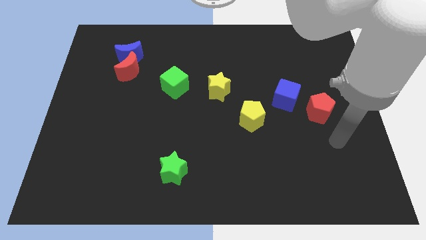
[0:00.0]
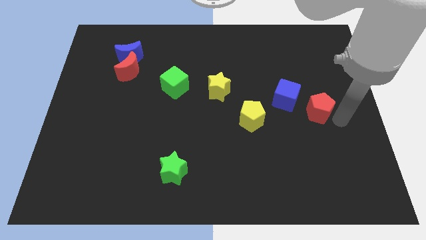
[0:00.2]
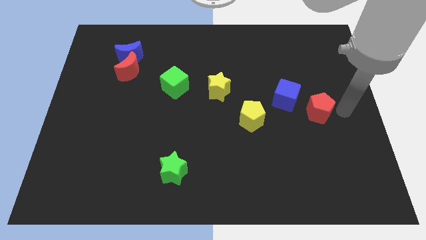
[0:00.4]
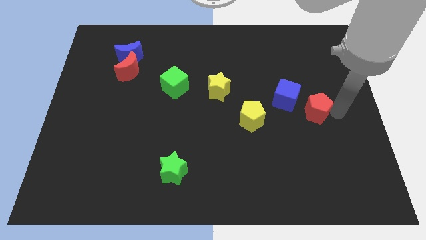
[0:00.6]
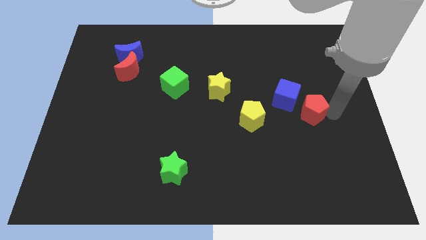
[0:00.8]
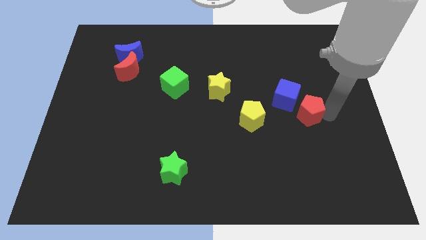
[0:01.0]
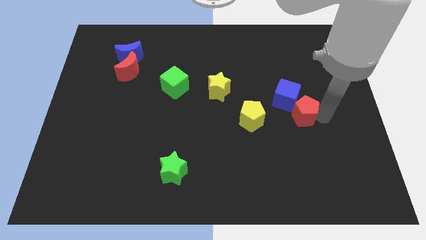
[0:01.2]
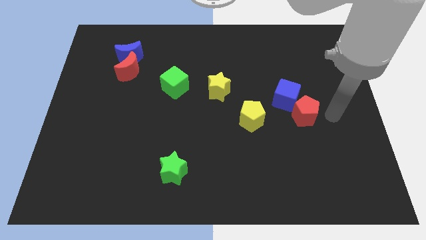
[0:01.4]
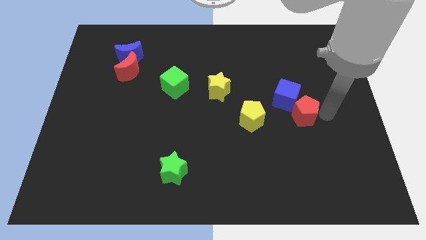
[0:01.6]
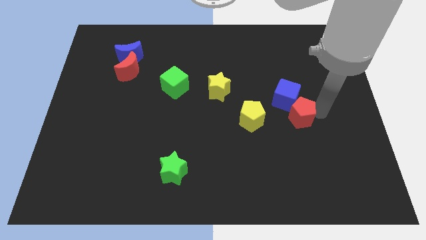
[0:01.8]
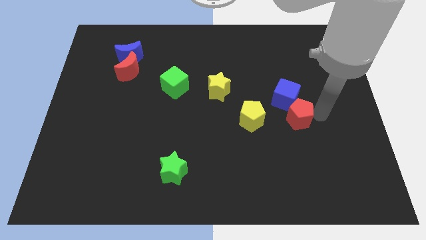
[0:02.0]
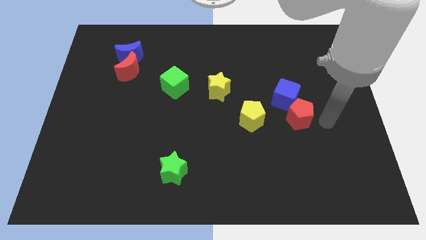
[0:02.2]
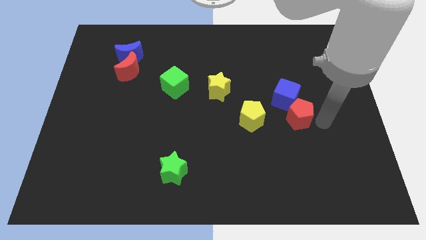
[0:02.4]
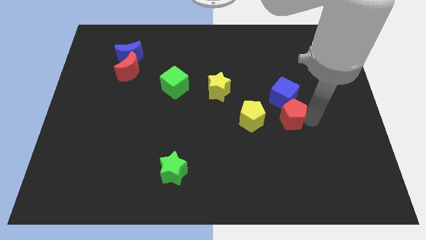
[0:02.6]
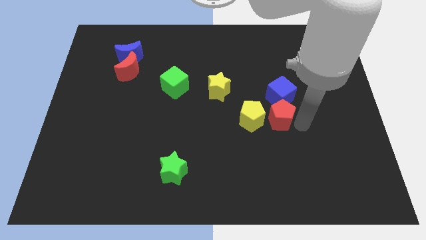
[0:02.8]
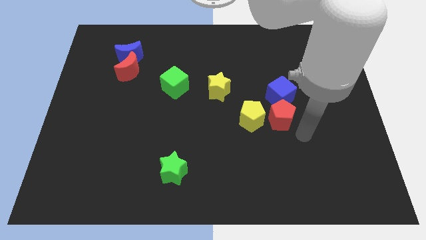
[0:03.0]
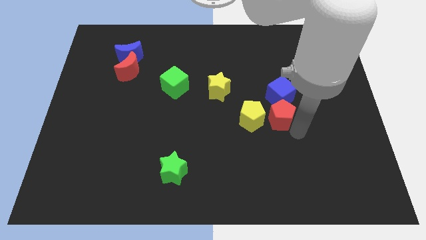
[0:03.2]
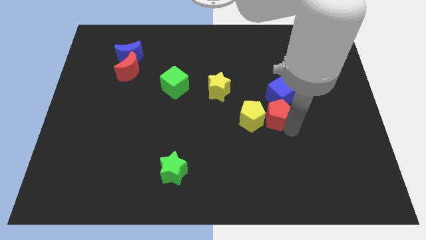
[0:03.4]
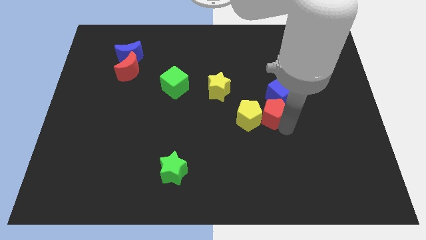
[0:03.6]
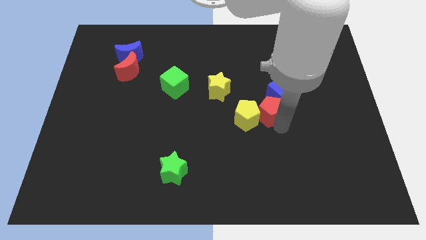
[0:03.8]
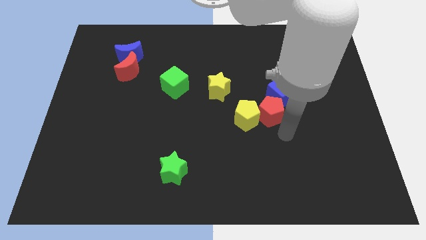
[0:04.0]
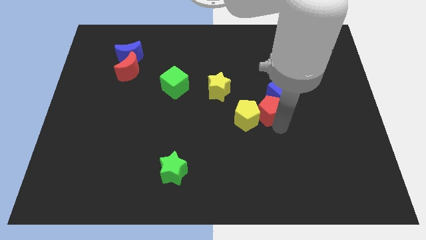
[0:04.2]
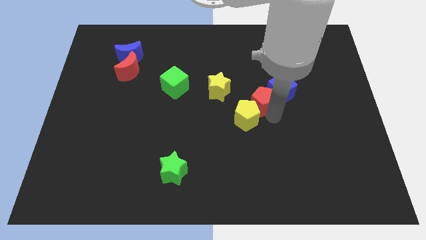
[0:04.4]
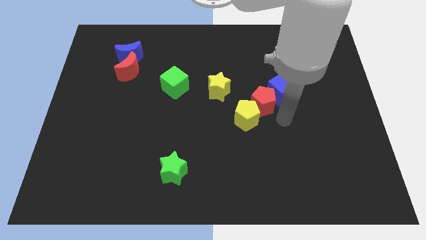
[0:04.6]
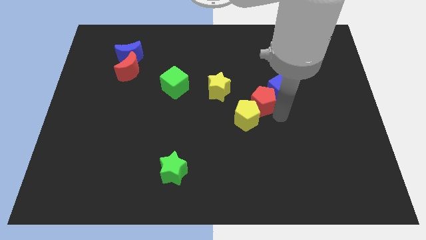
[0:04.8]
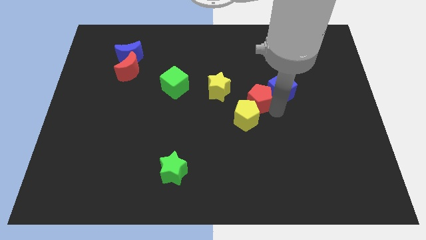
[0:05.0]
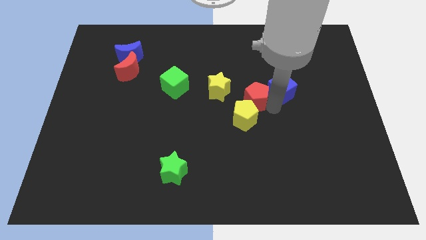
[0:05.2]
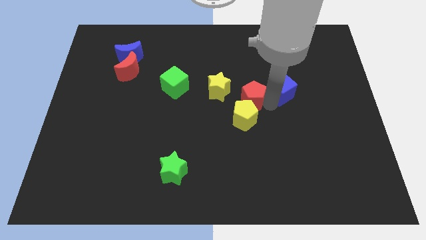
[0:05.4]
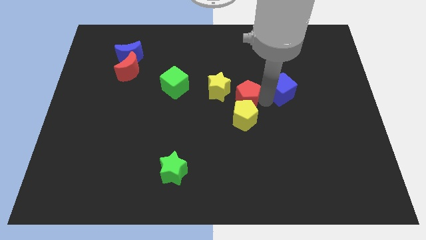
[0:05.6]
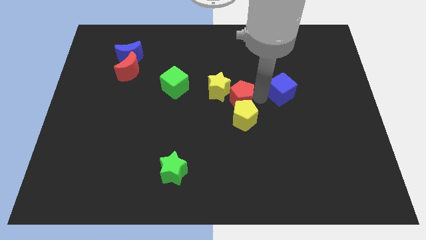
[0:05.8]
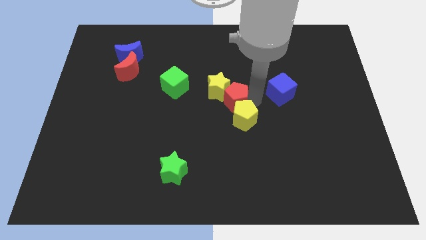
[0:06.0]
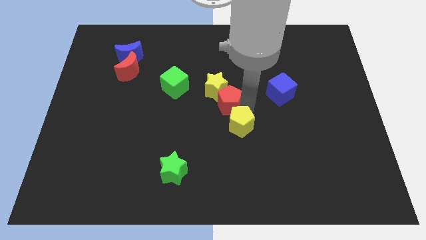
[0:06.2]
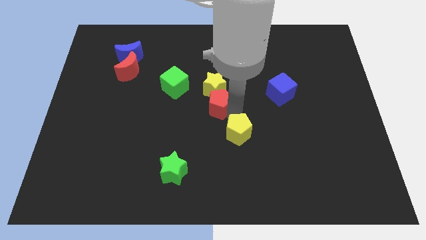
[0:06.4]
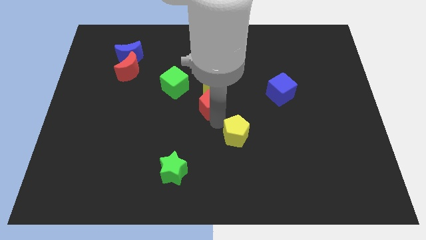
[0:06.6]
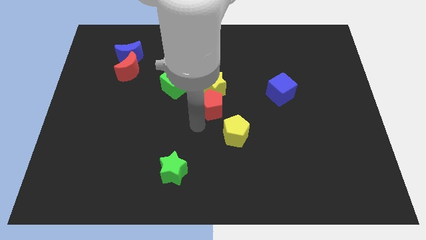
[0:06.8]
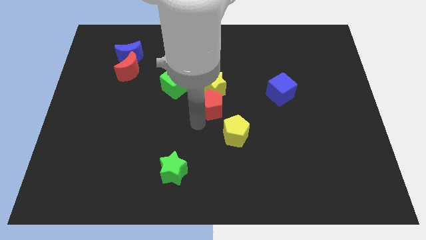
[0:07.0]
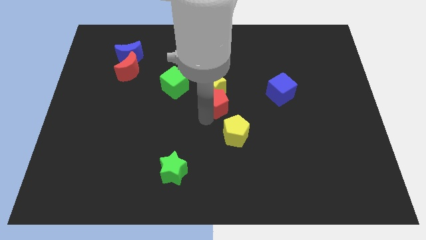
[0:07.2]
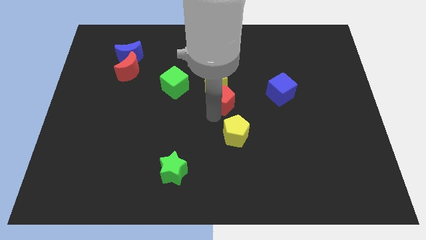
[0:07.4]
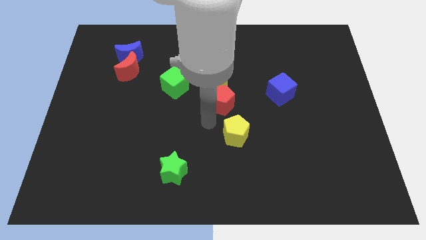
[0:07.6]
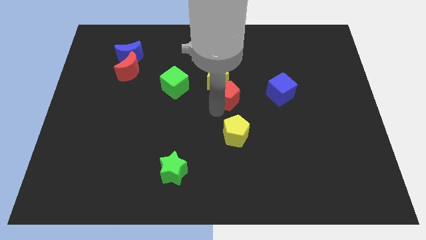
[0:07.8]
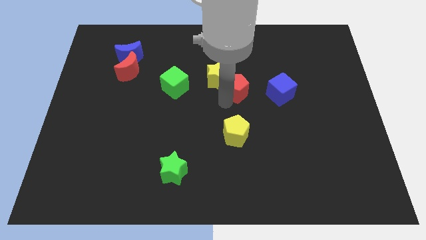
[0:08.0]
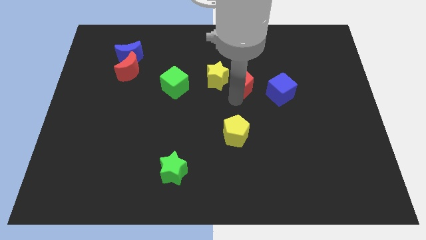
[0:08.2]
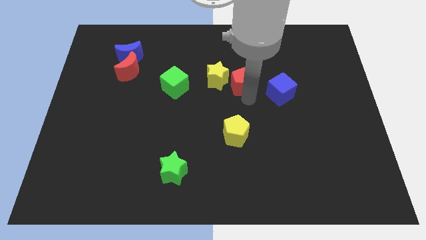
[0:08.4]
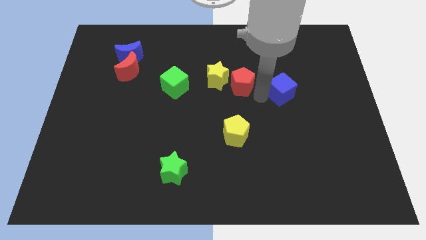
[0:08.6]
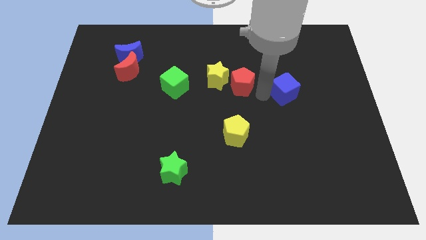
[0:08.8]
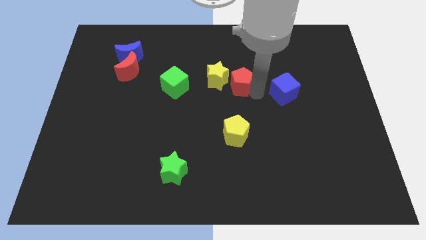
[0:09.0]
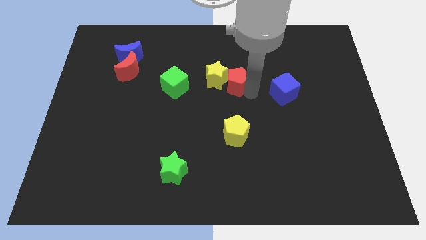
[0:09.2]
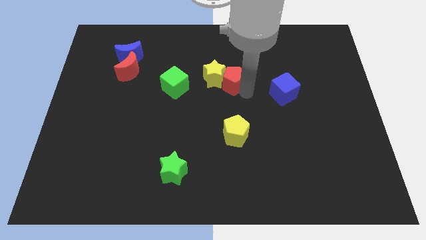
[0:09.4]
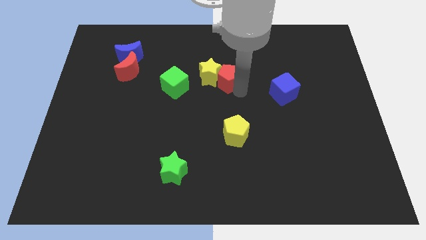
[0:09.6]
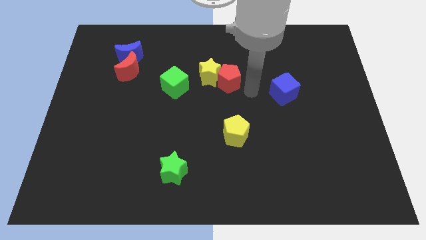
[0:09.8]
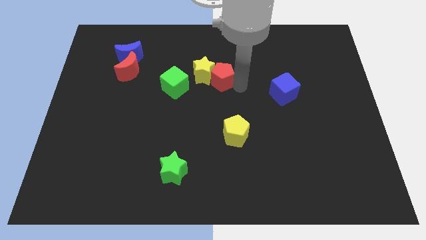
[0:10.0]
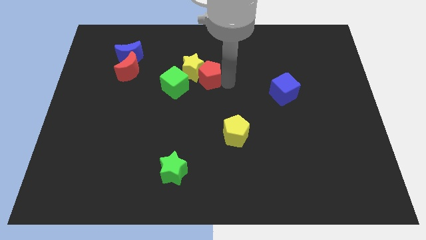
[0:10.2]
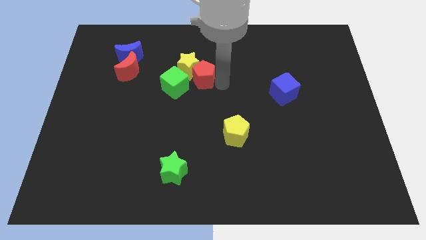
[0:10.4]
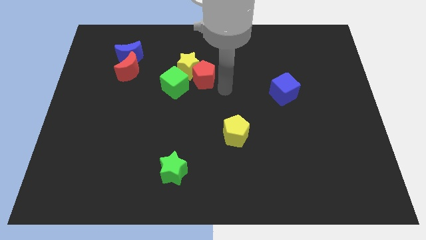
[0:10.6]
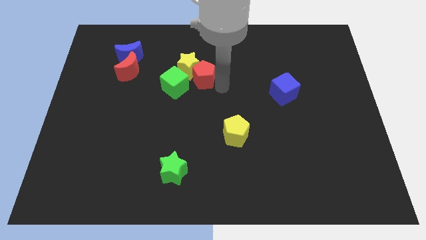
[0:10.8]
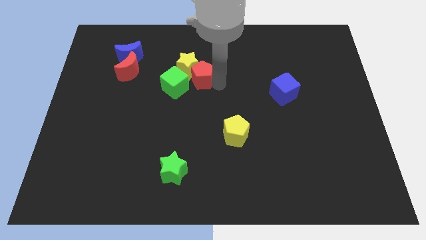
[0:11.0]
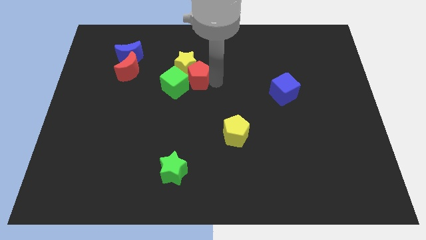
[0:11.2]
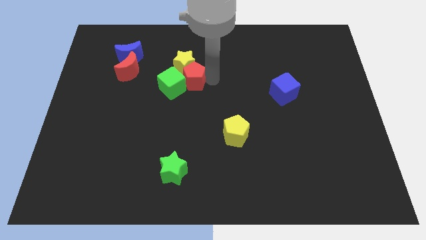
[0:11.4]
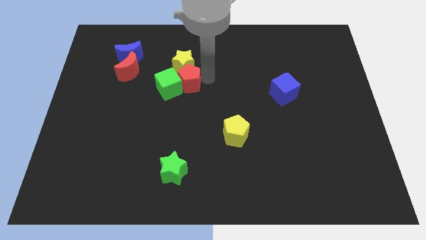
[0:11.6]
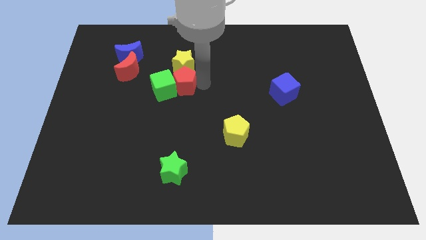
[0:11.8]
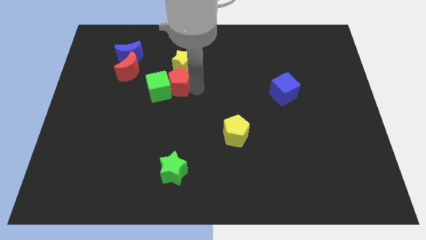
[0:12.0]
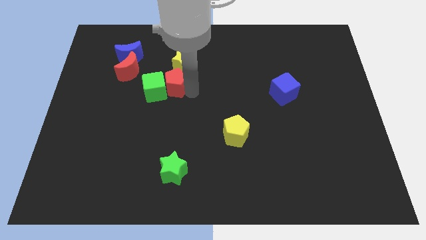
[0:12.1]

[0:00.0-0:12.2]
put the red pentagon to the right of the red moon

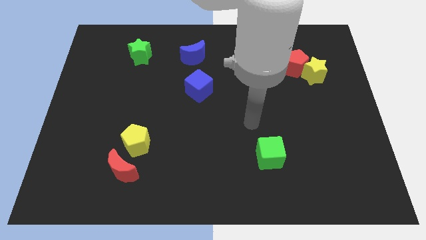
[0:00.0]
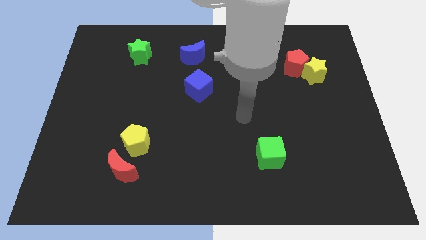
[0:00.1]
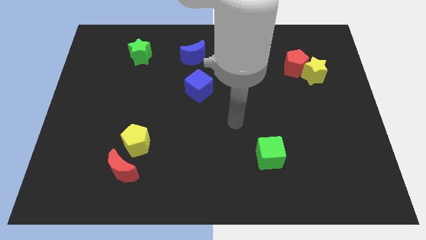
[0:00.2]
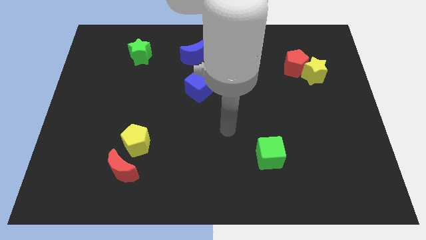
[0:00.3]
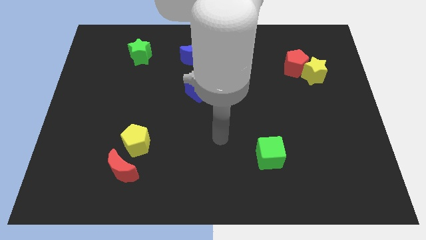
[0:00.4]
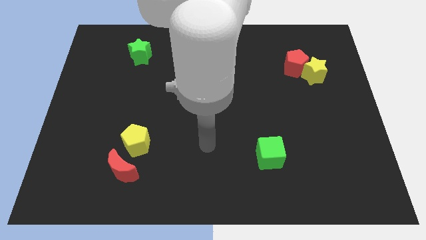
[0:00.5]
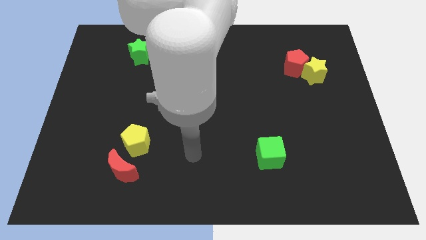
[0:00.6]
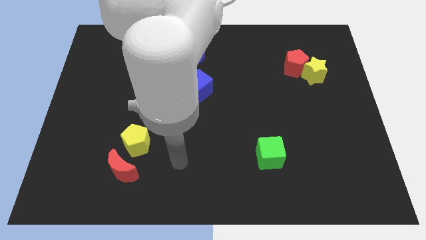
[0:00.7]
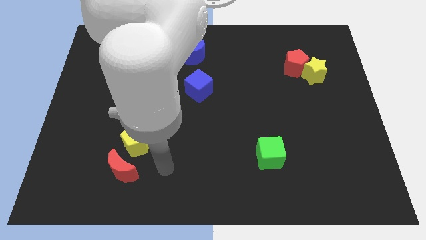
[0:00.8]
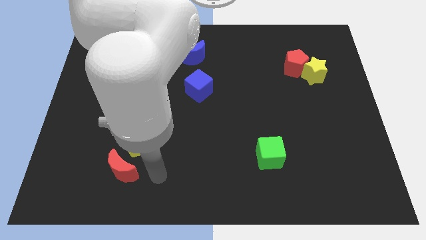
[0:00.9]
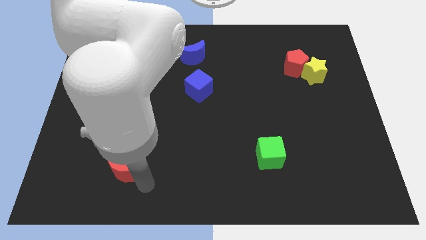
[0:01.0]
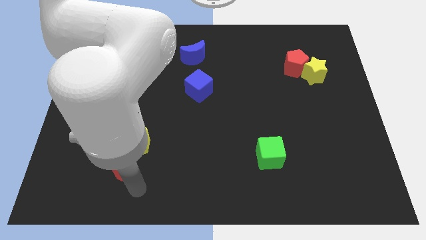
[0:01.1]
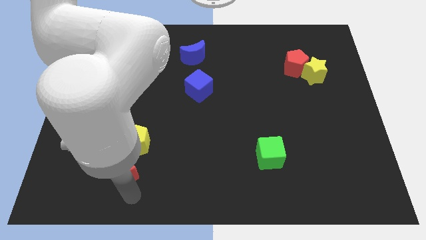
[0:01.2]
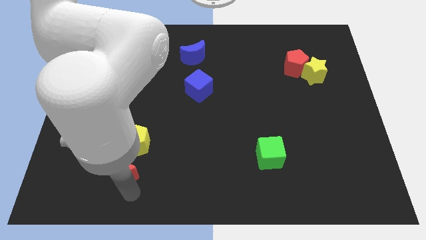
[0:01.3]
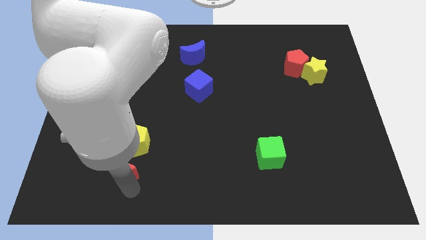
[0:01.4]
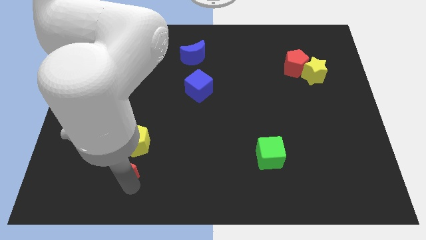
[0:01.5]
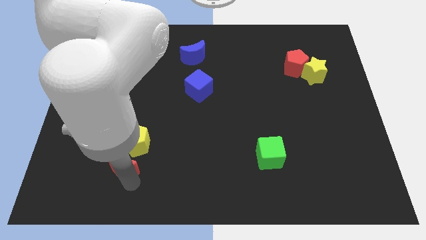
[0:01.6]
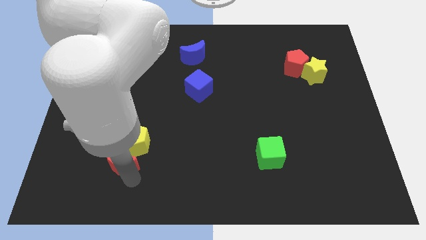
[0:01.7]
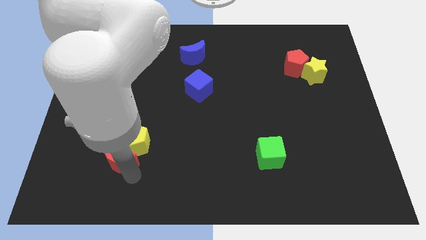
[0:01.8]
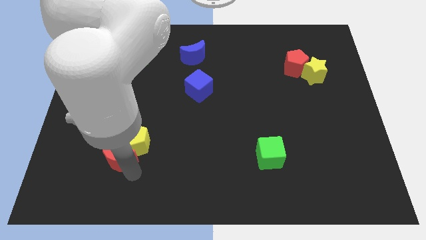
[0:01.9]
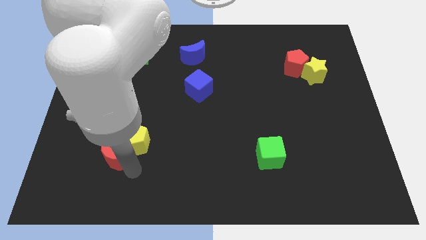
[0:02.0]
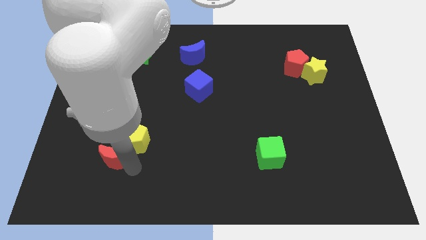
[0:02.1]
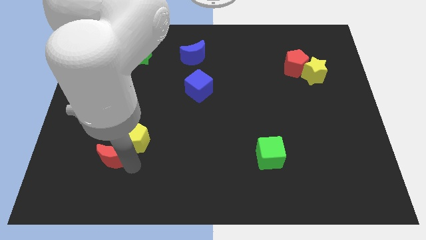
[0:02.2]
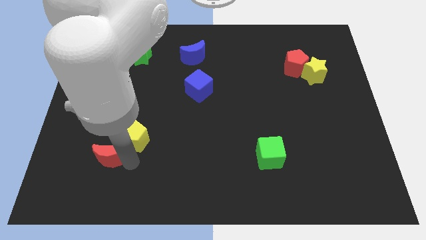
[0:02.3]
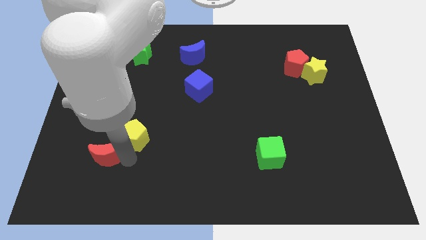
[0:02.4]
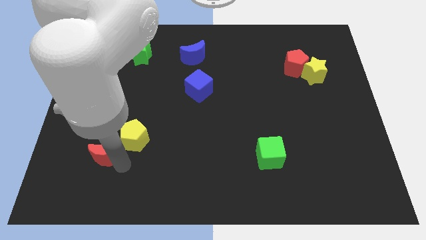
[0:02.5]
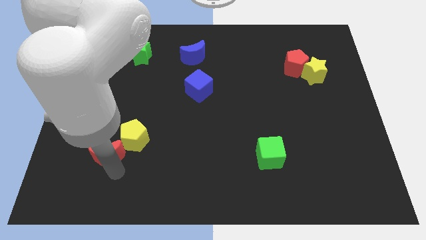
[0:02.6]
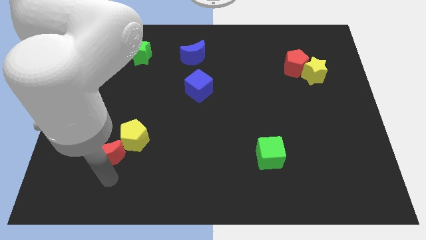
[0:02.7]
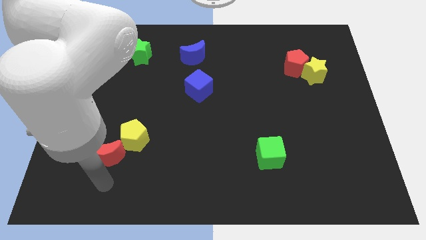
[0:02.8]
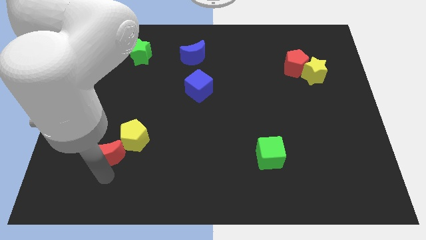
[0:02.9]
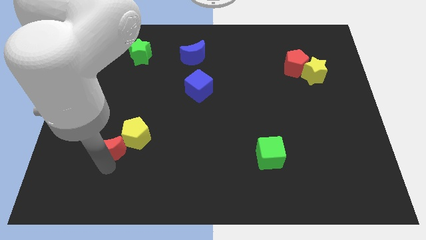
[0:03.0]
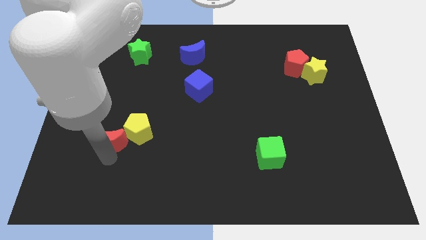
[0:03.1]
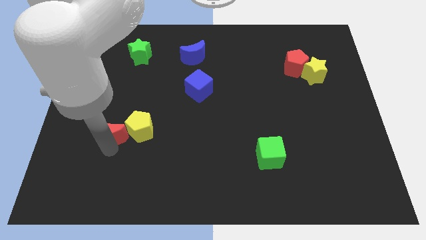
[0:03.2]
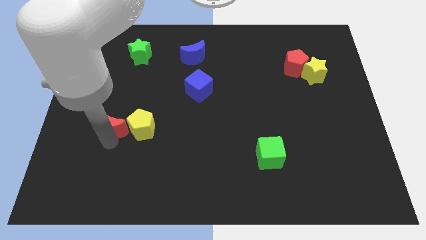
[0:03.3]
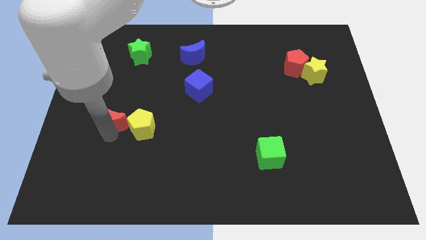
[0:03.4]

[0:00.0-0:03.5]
move the red moon diagonally up and to the left of the yellow pentagon
